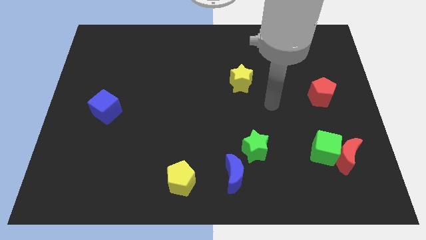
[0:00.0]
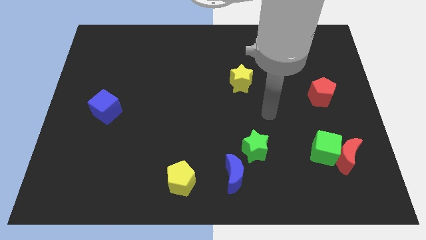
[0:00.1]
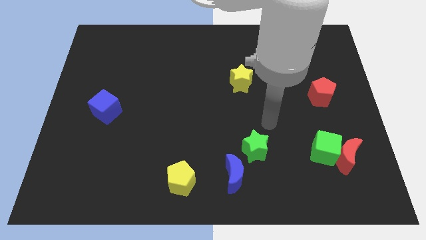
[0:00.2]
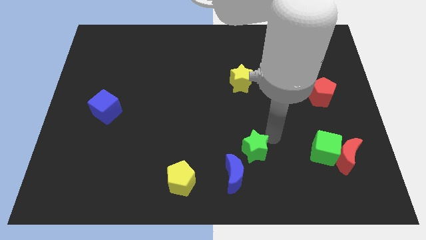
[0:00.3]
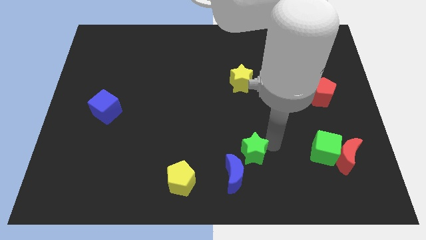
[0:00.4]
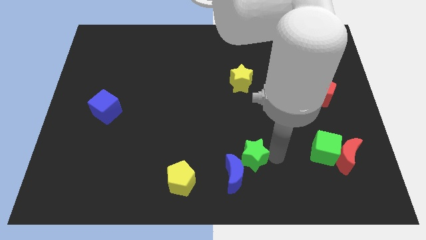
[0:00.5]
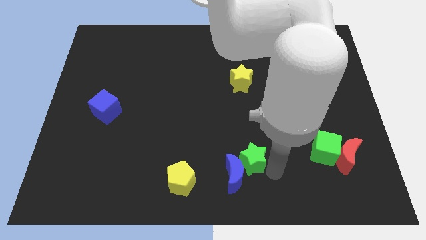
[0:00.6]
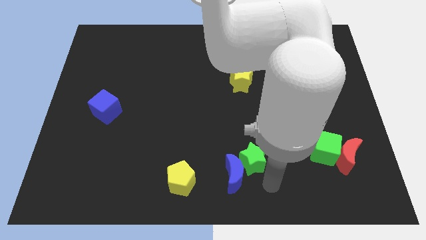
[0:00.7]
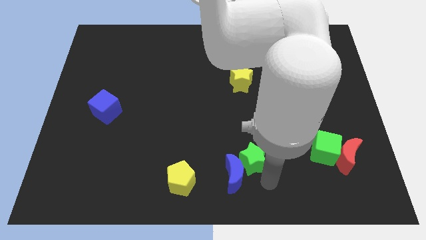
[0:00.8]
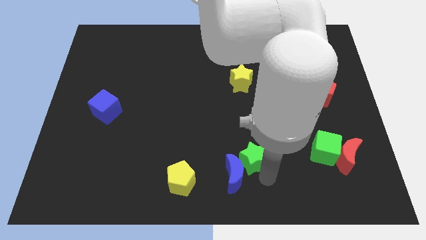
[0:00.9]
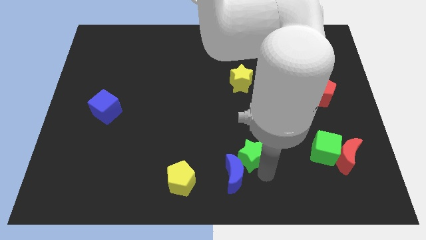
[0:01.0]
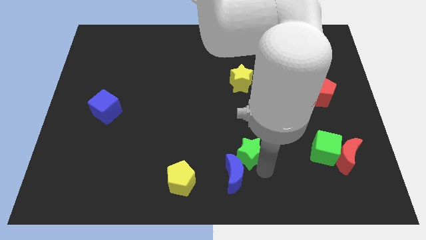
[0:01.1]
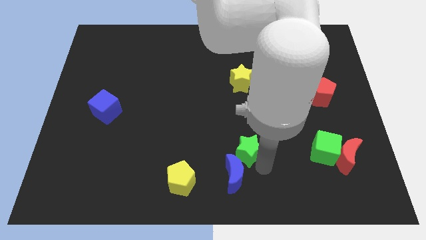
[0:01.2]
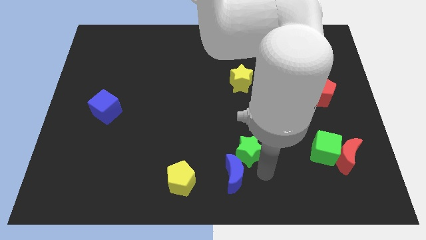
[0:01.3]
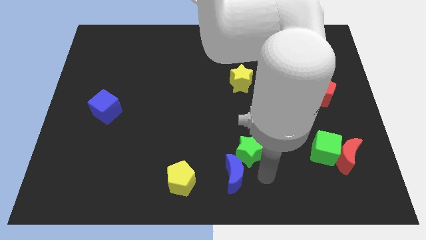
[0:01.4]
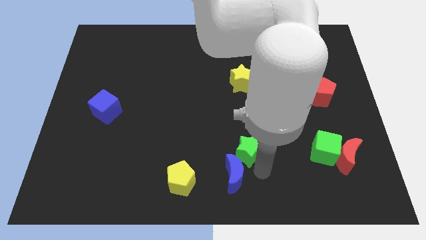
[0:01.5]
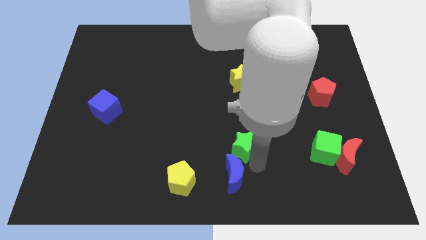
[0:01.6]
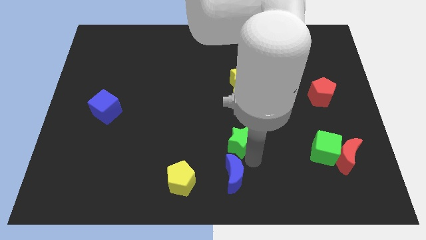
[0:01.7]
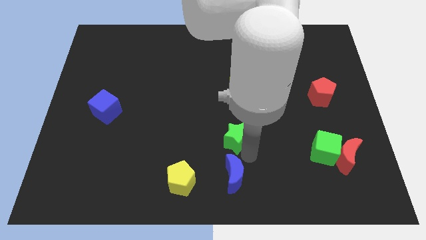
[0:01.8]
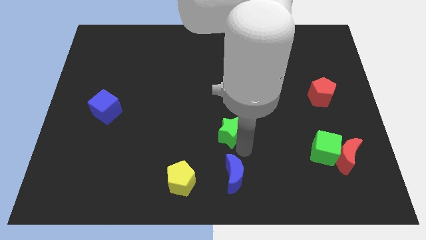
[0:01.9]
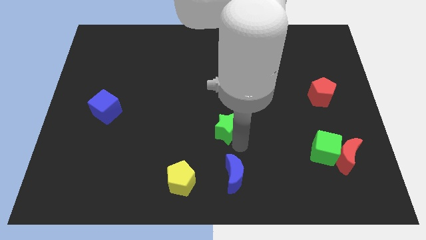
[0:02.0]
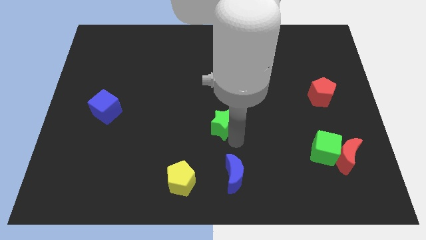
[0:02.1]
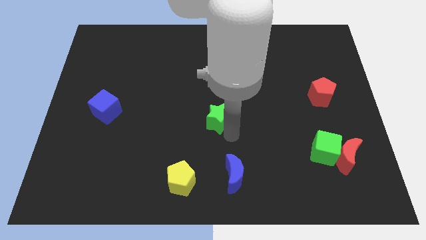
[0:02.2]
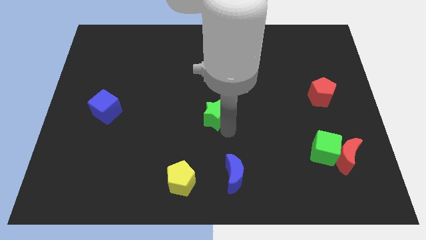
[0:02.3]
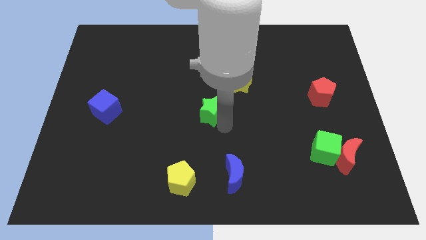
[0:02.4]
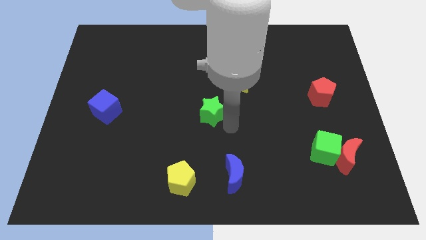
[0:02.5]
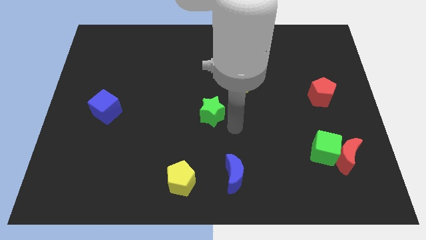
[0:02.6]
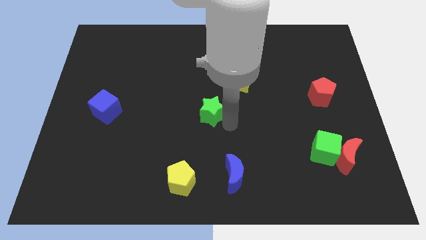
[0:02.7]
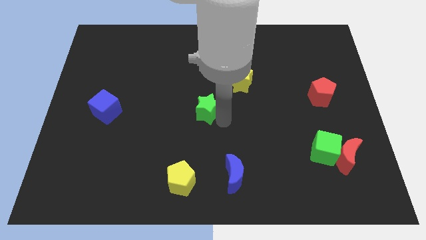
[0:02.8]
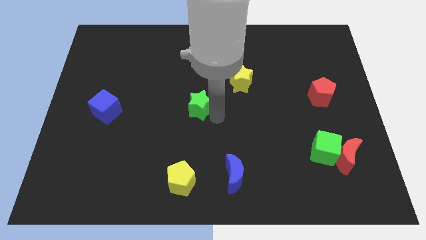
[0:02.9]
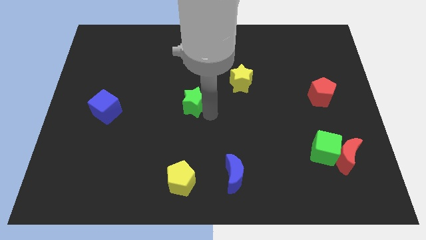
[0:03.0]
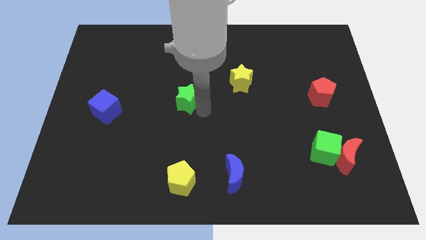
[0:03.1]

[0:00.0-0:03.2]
move the green star upwards and to the left diagonally

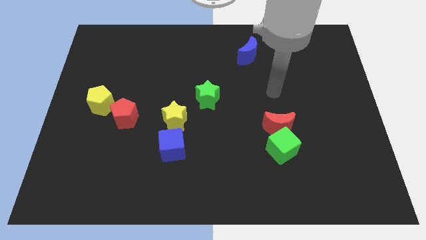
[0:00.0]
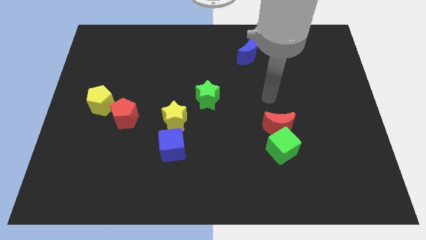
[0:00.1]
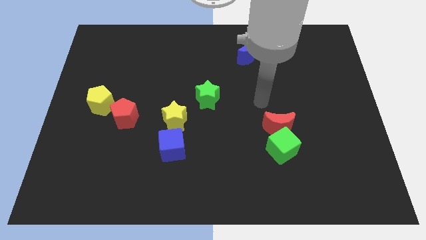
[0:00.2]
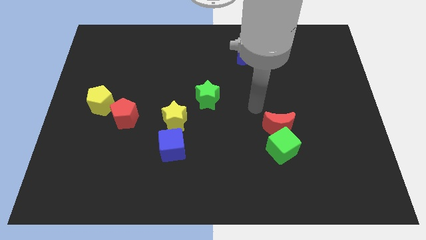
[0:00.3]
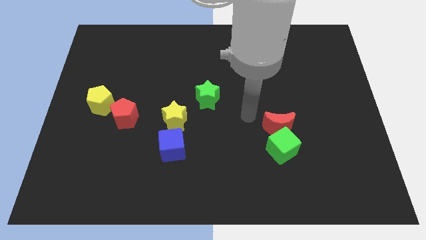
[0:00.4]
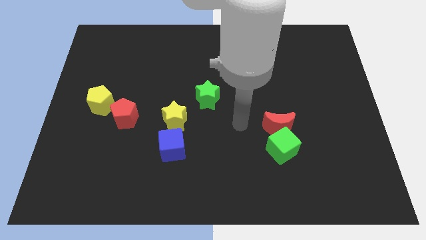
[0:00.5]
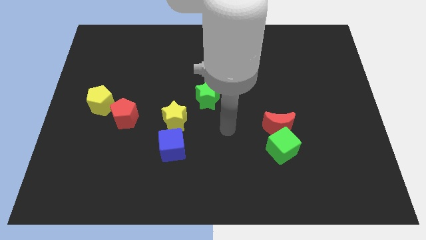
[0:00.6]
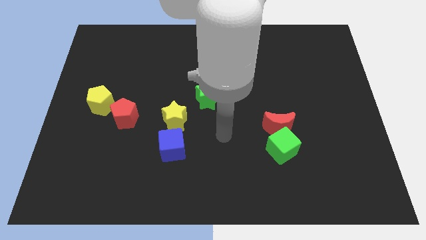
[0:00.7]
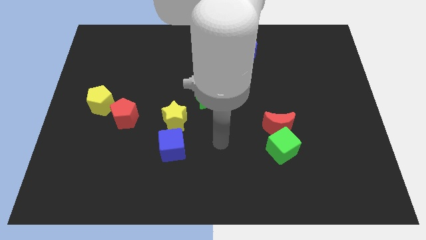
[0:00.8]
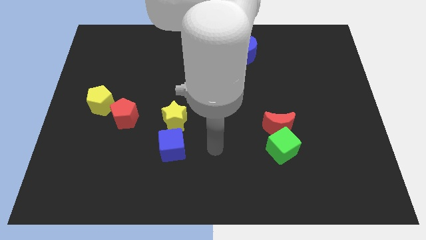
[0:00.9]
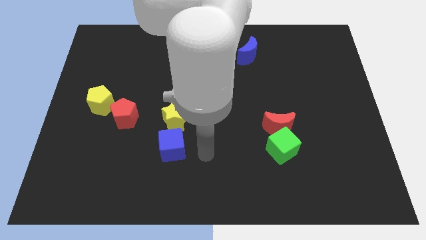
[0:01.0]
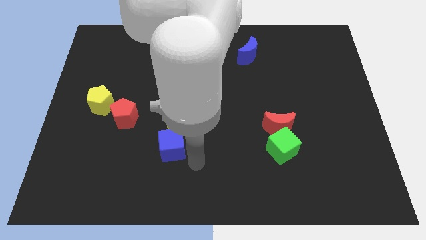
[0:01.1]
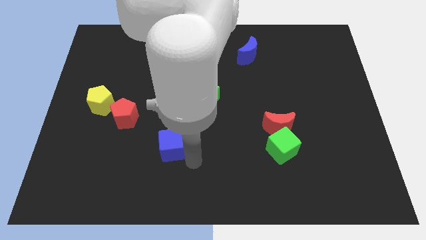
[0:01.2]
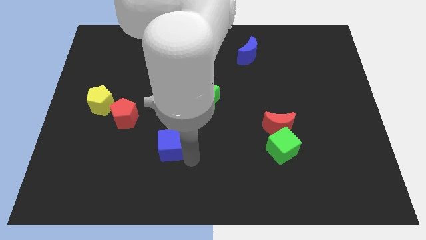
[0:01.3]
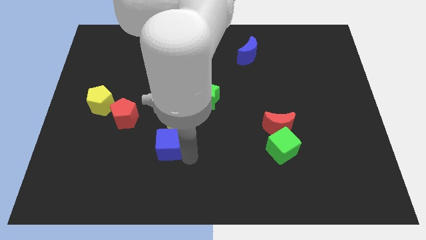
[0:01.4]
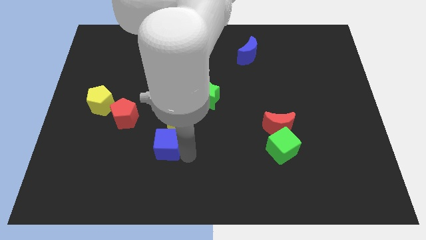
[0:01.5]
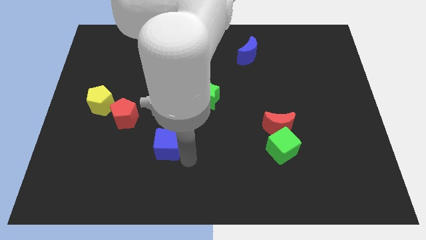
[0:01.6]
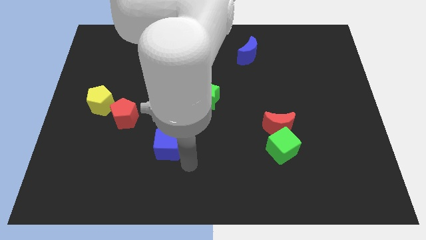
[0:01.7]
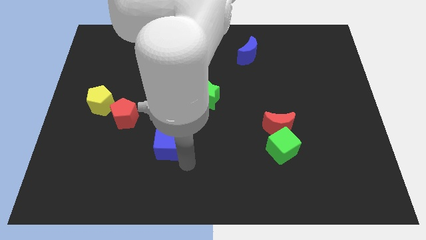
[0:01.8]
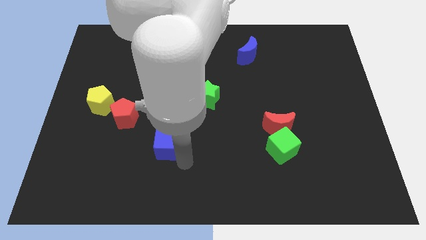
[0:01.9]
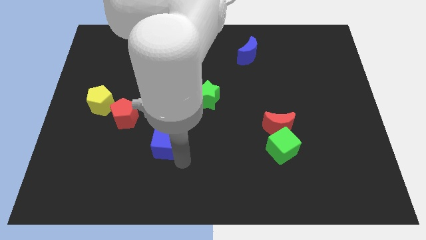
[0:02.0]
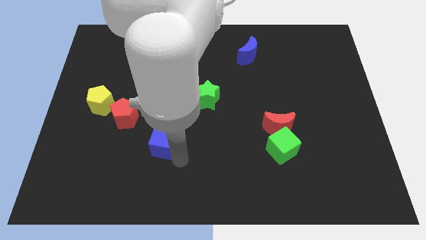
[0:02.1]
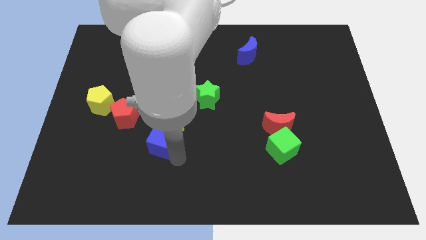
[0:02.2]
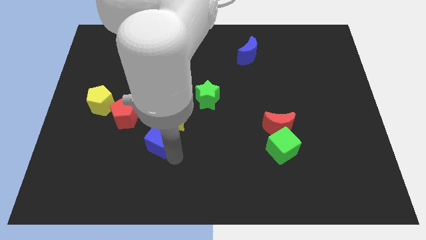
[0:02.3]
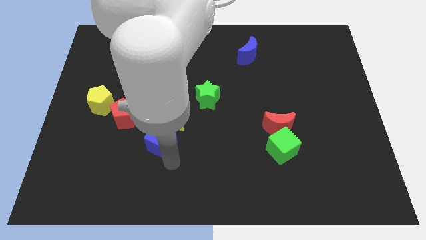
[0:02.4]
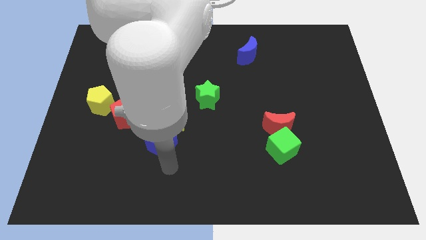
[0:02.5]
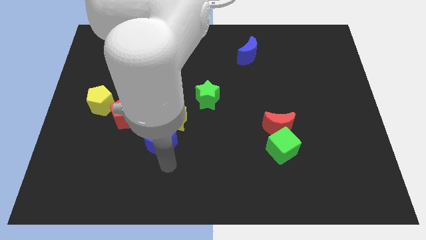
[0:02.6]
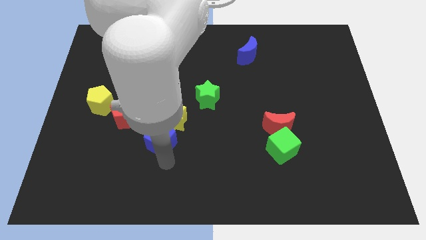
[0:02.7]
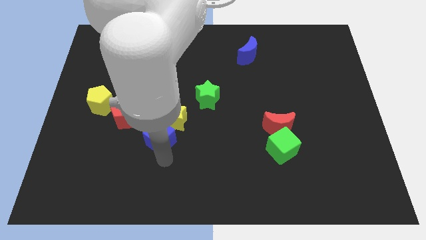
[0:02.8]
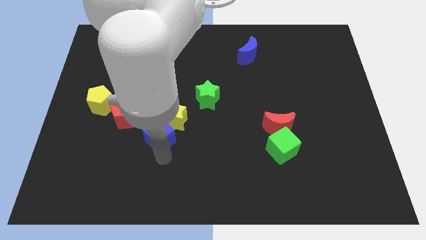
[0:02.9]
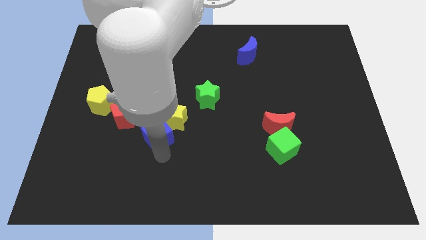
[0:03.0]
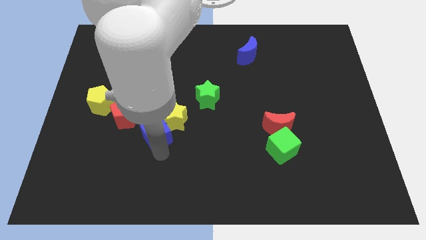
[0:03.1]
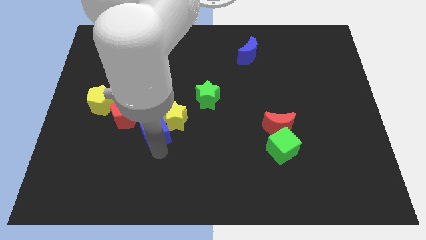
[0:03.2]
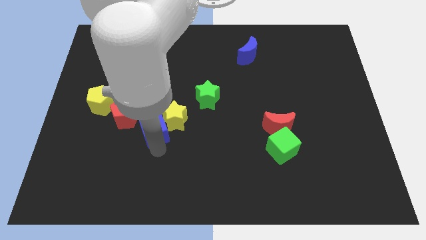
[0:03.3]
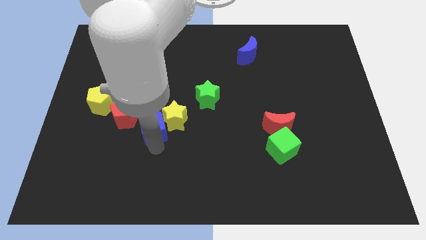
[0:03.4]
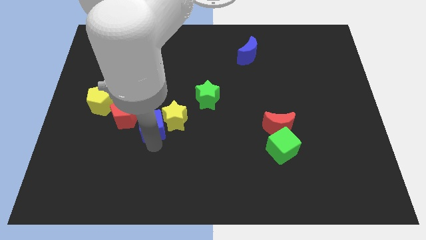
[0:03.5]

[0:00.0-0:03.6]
slide the blue cube up and left diagonally a bit

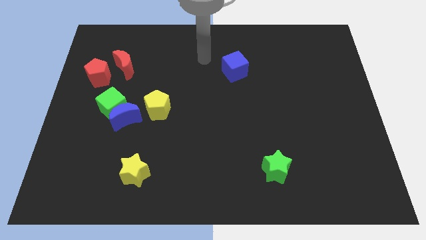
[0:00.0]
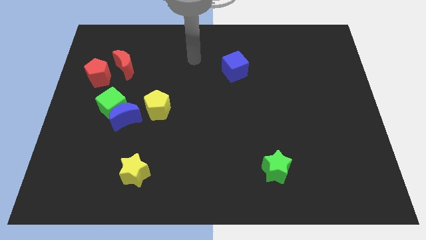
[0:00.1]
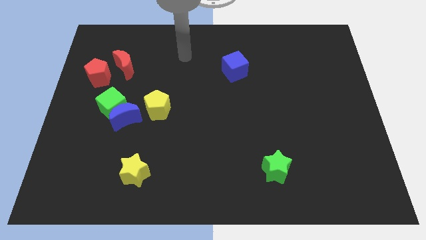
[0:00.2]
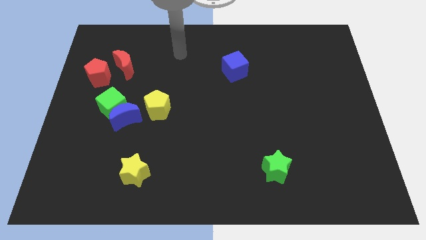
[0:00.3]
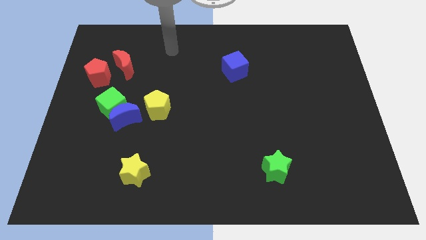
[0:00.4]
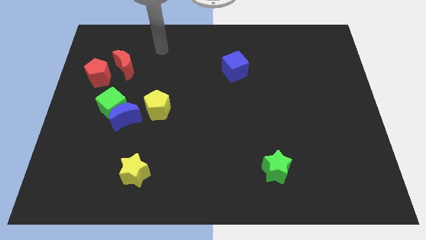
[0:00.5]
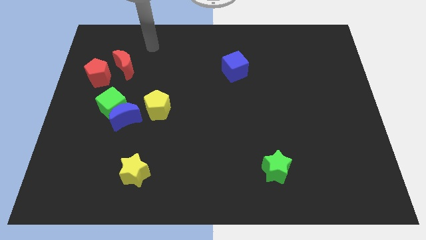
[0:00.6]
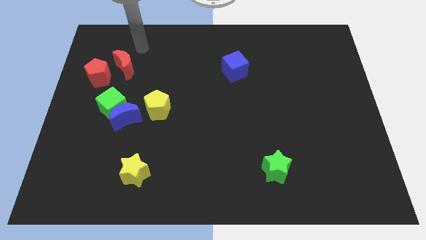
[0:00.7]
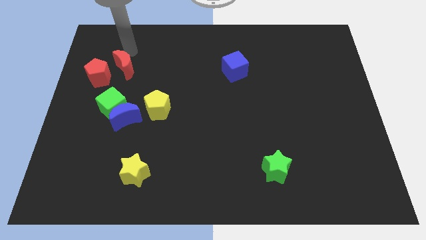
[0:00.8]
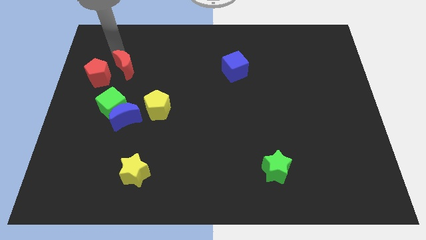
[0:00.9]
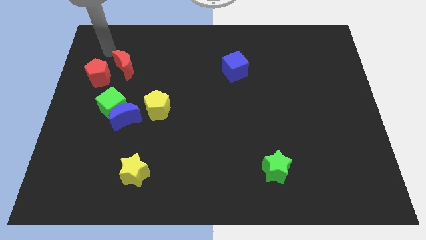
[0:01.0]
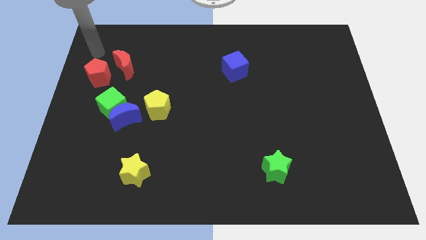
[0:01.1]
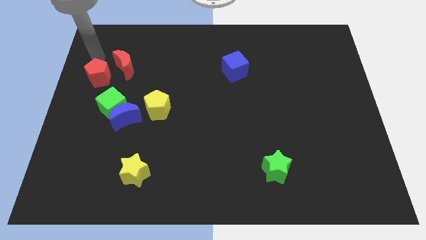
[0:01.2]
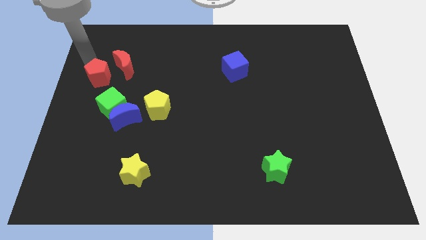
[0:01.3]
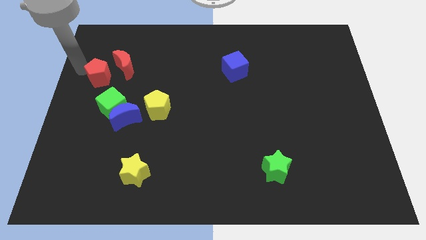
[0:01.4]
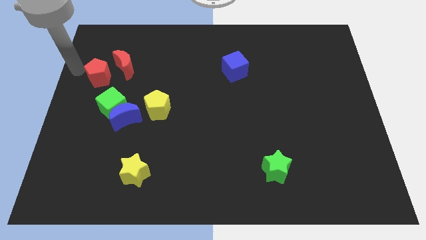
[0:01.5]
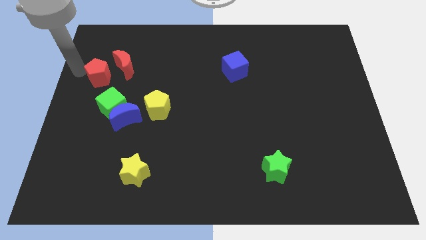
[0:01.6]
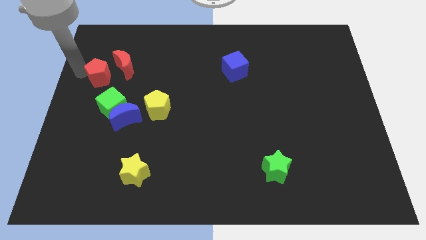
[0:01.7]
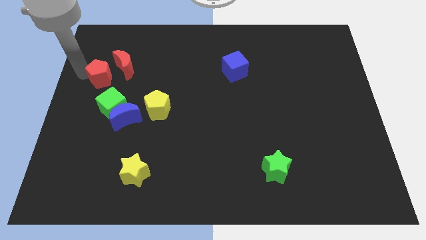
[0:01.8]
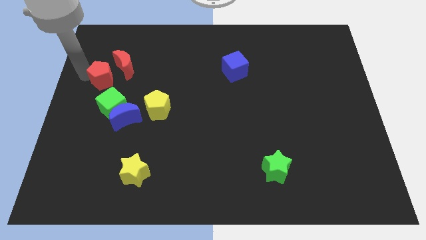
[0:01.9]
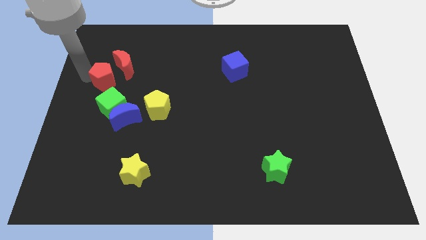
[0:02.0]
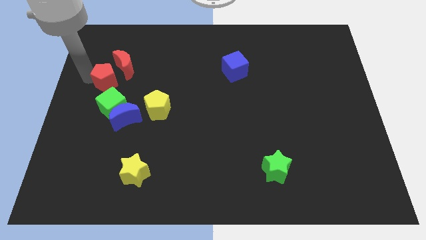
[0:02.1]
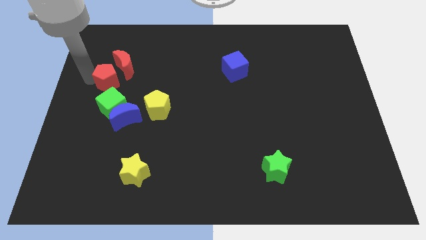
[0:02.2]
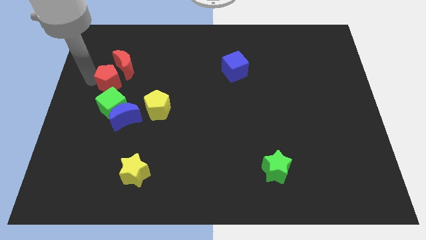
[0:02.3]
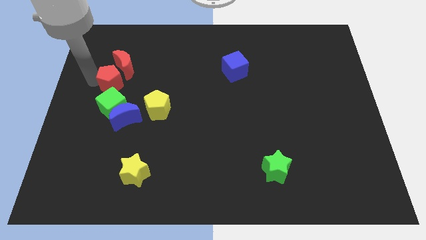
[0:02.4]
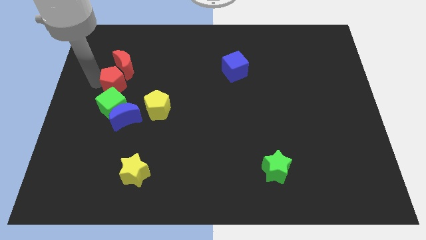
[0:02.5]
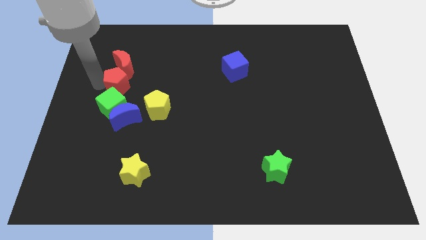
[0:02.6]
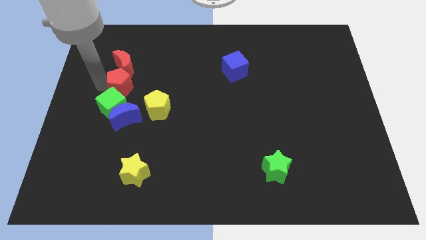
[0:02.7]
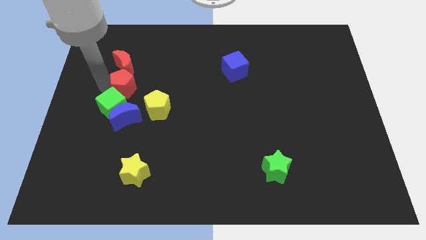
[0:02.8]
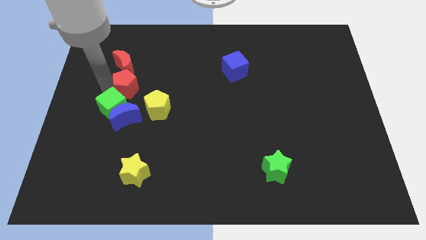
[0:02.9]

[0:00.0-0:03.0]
move the red pentagon right somewhat
